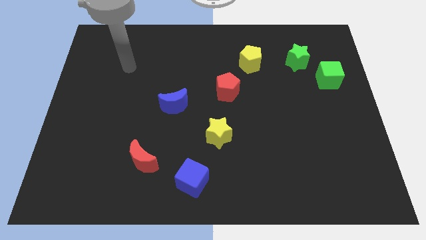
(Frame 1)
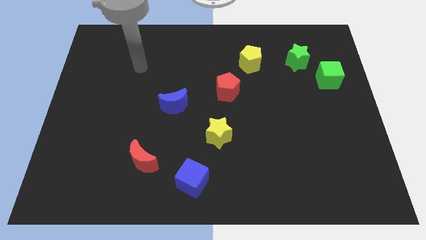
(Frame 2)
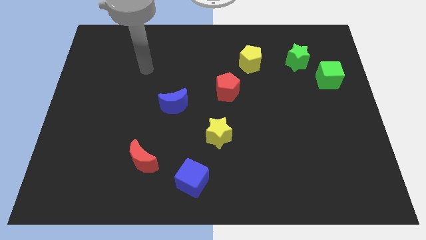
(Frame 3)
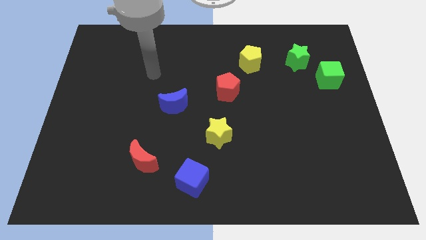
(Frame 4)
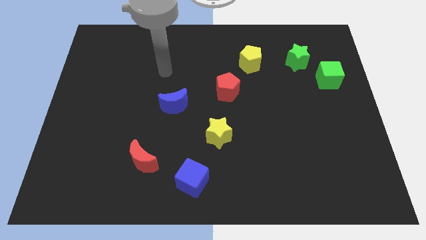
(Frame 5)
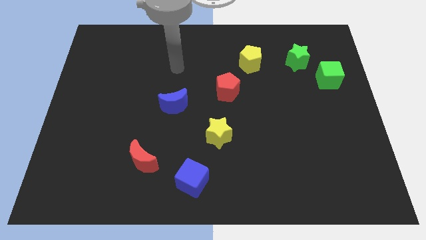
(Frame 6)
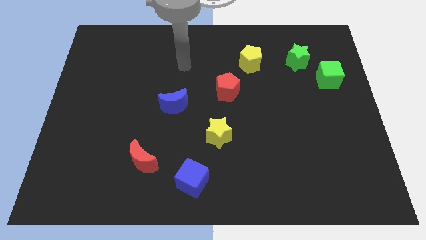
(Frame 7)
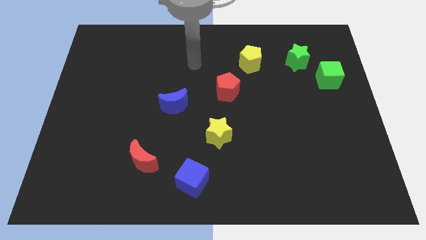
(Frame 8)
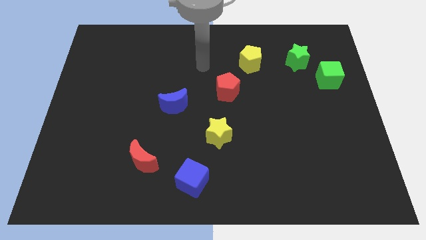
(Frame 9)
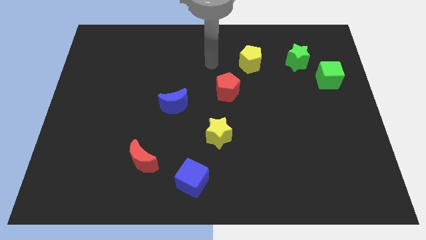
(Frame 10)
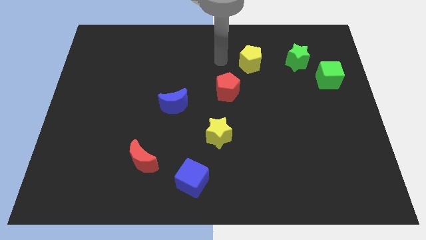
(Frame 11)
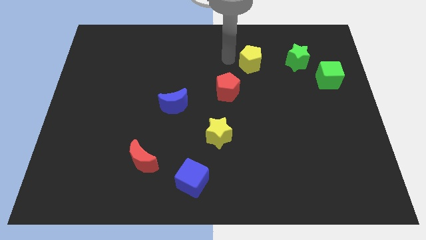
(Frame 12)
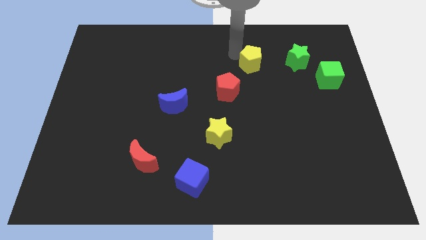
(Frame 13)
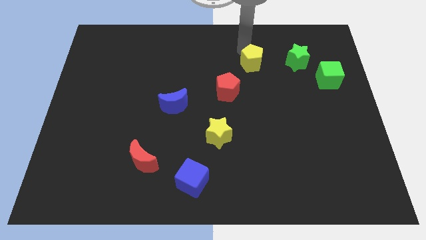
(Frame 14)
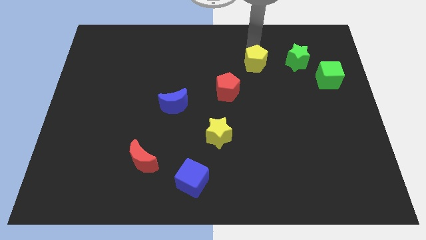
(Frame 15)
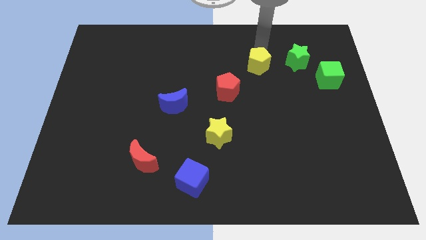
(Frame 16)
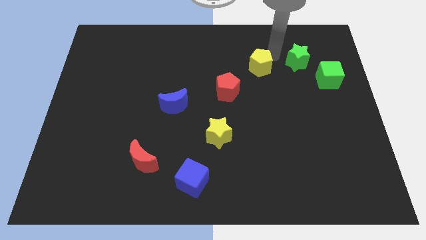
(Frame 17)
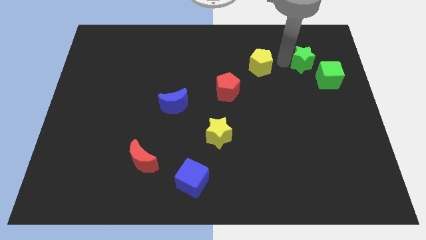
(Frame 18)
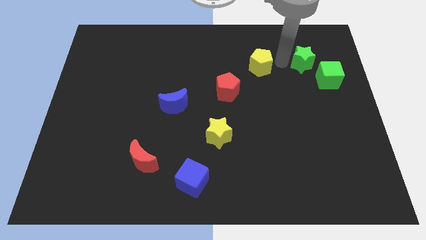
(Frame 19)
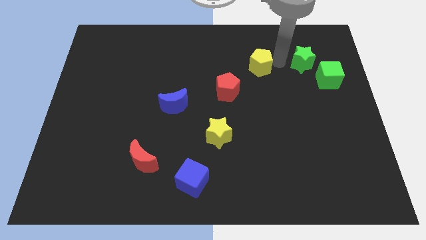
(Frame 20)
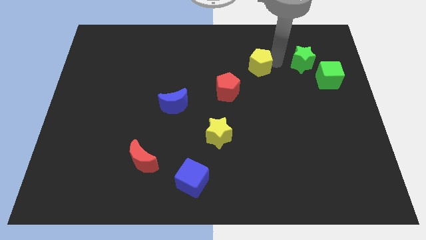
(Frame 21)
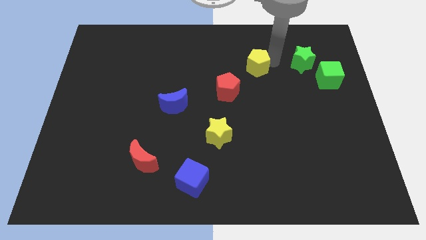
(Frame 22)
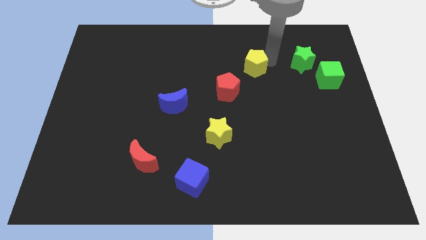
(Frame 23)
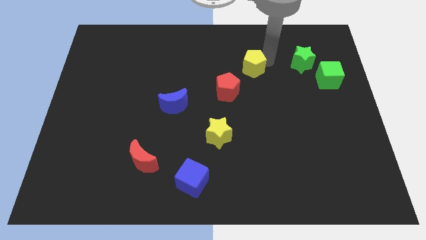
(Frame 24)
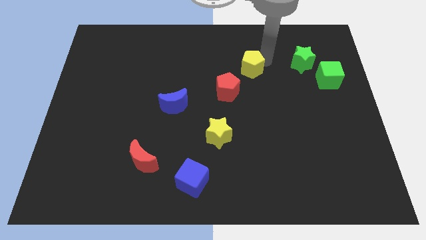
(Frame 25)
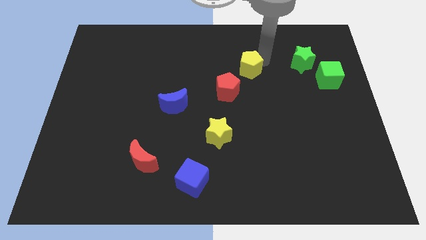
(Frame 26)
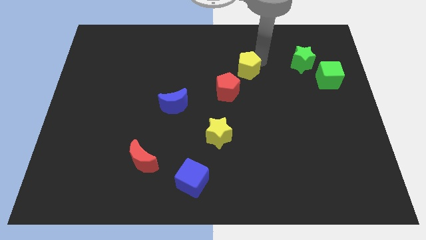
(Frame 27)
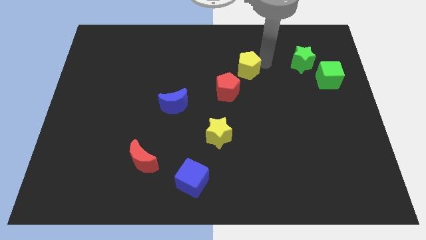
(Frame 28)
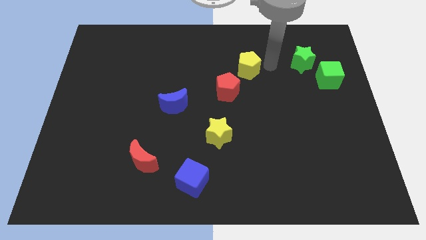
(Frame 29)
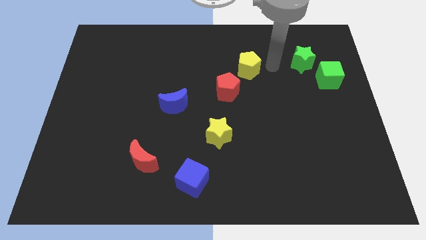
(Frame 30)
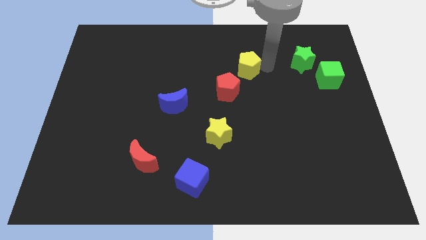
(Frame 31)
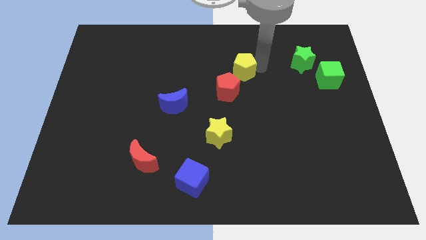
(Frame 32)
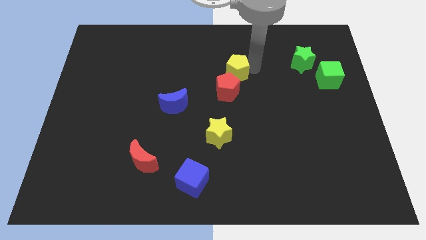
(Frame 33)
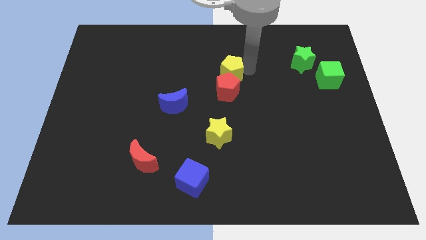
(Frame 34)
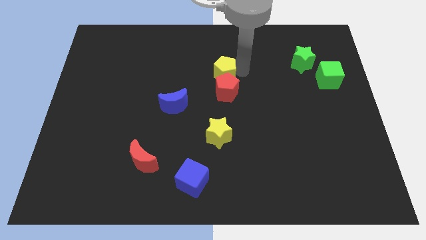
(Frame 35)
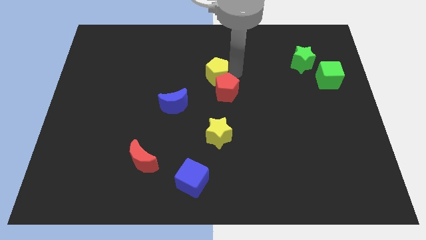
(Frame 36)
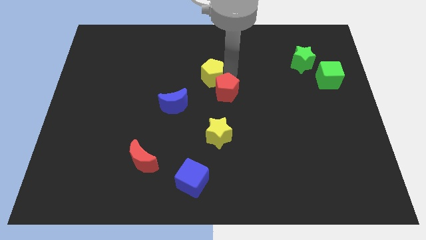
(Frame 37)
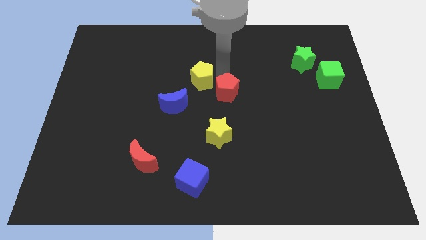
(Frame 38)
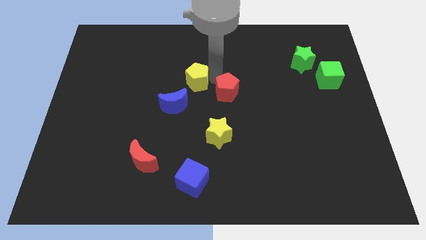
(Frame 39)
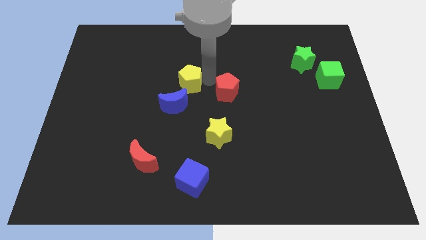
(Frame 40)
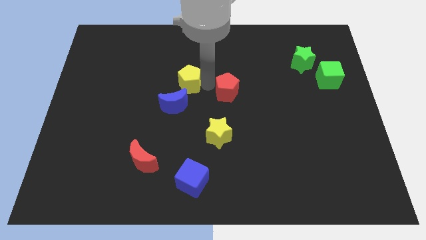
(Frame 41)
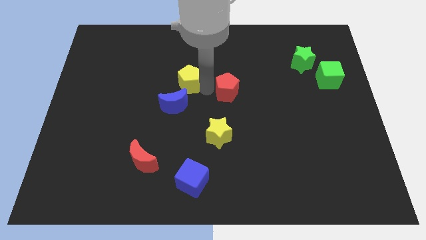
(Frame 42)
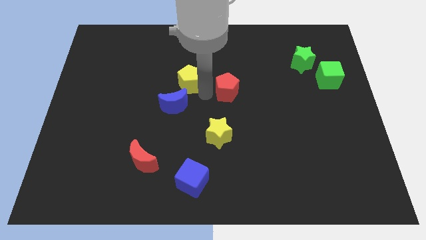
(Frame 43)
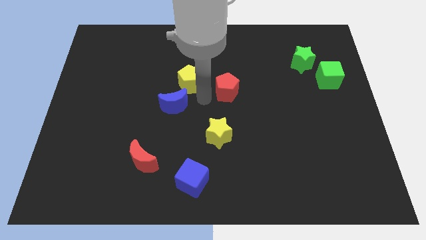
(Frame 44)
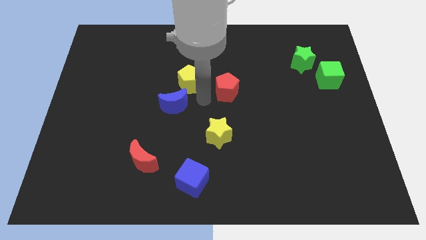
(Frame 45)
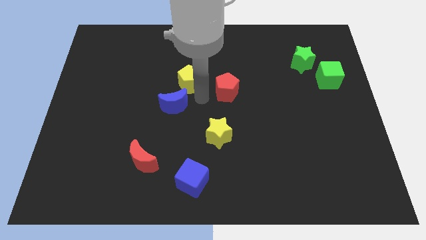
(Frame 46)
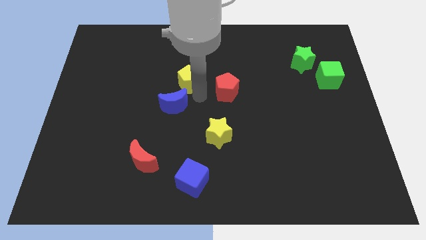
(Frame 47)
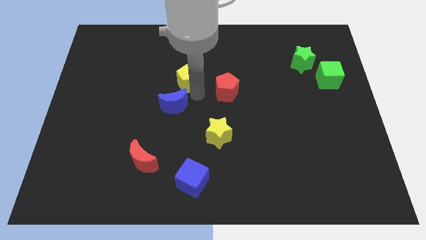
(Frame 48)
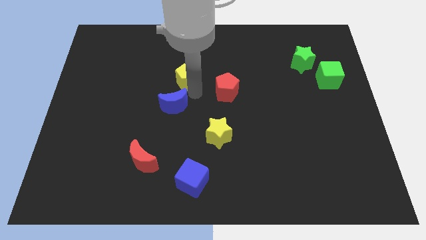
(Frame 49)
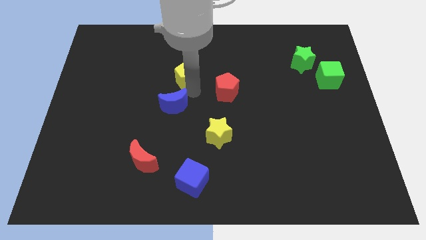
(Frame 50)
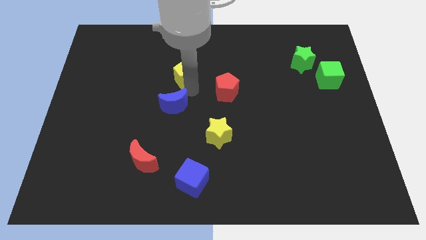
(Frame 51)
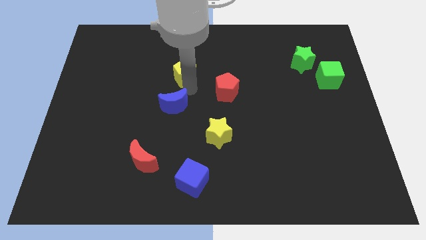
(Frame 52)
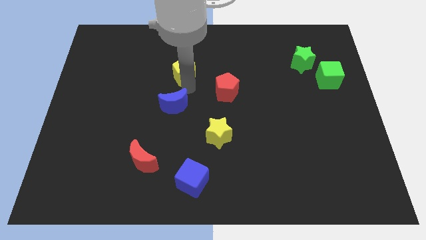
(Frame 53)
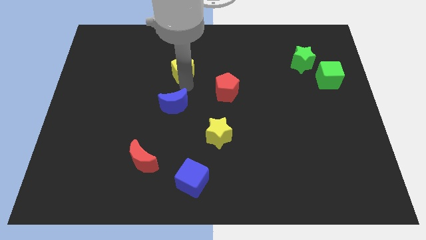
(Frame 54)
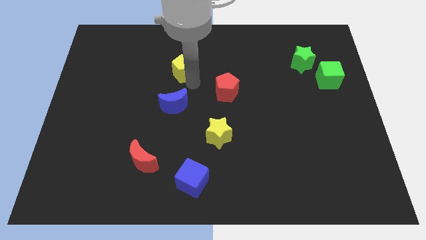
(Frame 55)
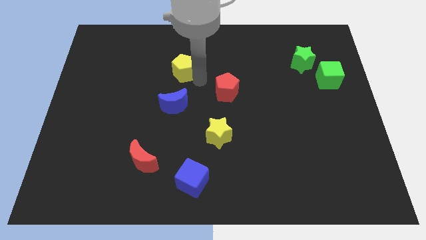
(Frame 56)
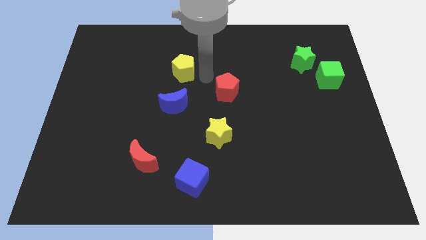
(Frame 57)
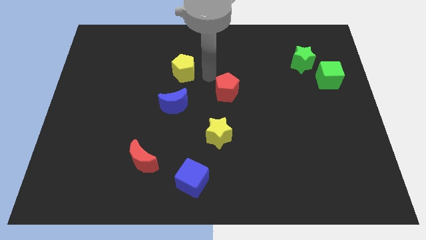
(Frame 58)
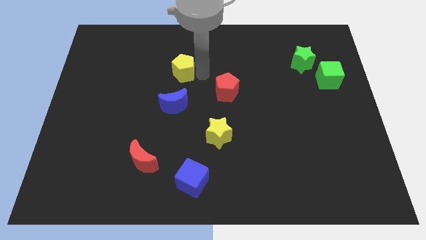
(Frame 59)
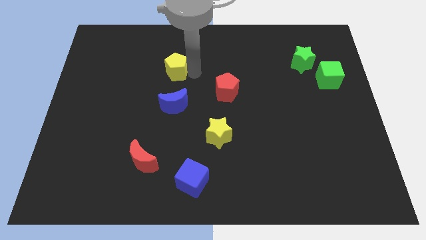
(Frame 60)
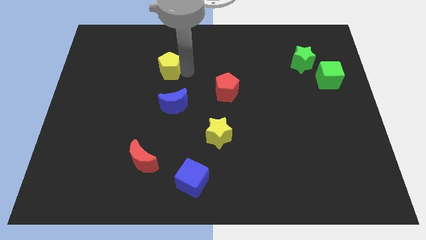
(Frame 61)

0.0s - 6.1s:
push the yellow pentagon left

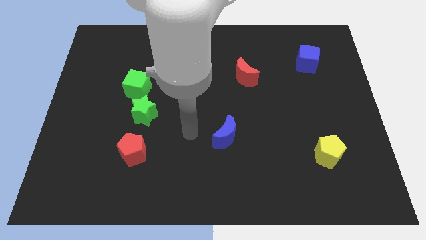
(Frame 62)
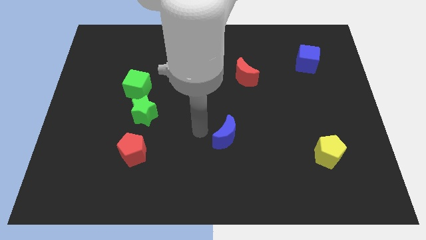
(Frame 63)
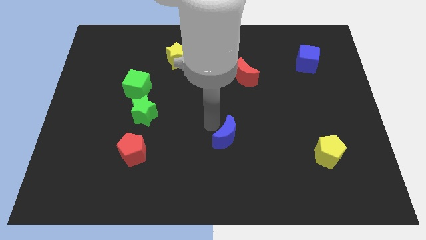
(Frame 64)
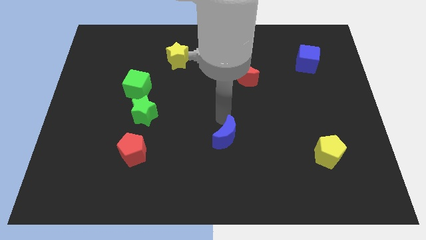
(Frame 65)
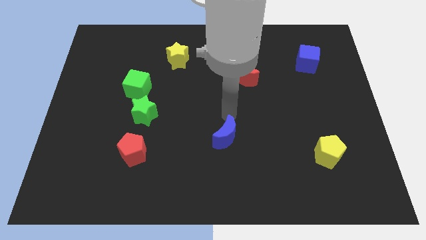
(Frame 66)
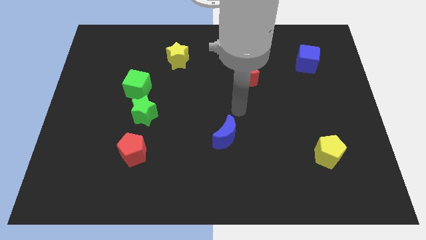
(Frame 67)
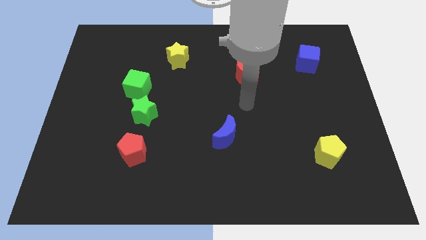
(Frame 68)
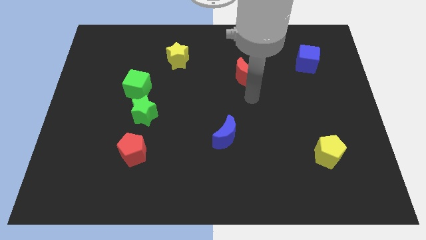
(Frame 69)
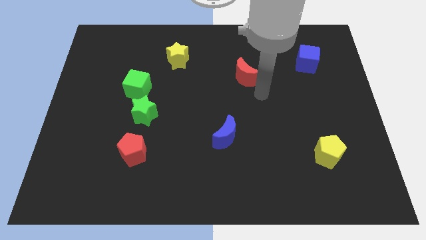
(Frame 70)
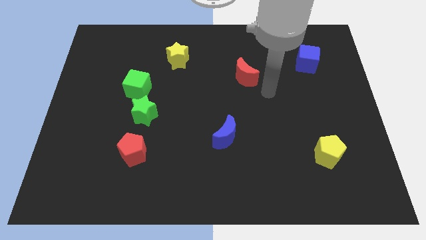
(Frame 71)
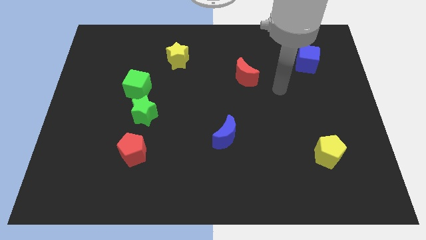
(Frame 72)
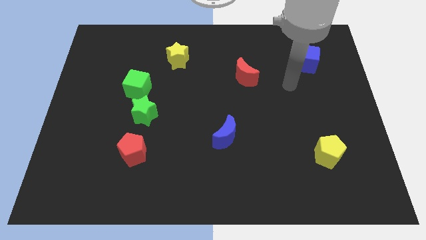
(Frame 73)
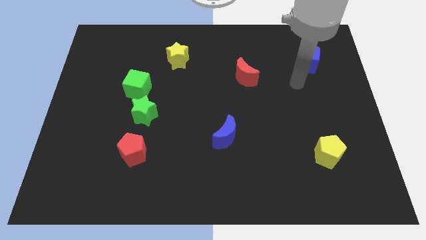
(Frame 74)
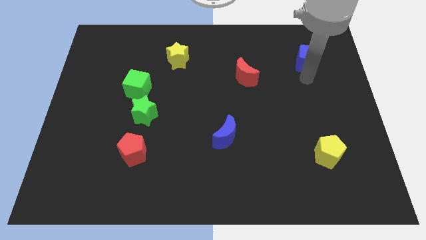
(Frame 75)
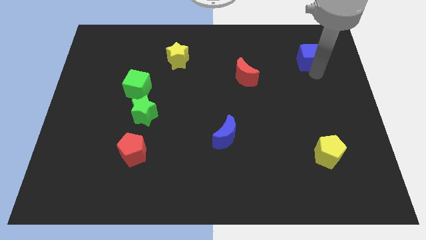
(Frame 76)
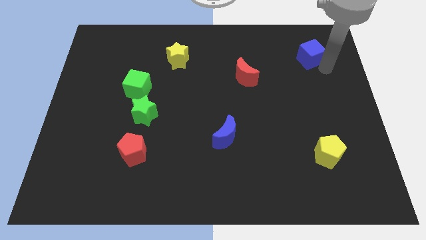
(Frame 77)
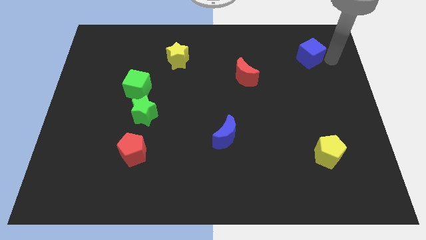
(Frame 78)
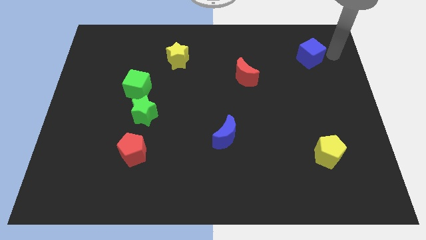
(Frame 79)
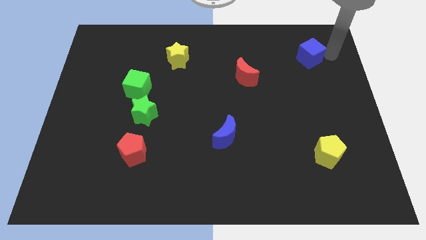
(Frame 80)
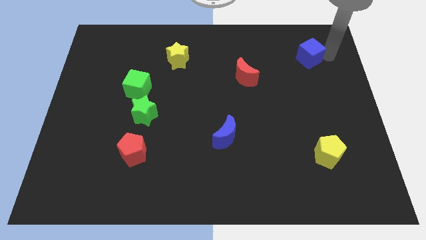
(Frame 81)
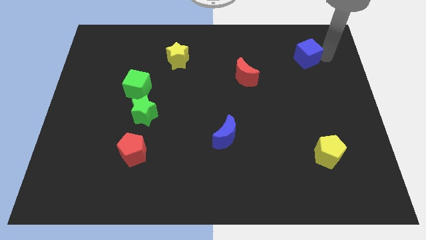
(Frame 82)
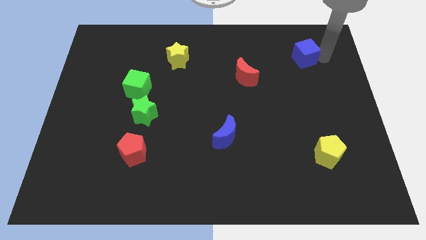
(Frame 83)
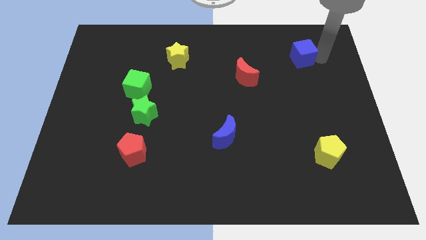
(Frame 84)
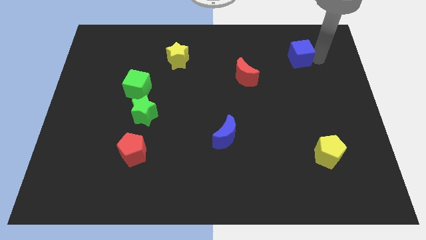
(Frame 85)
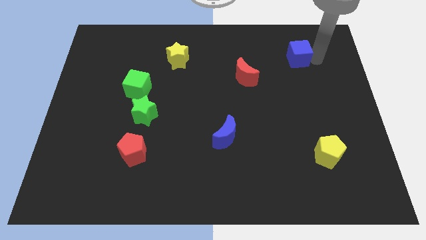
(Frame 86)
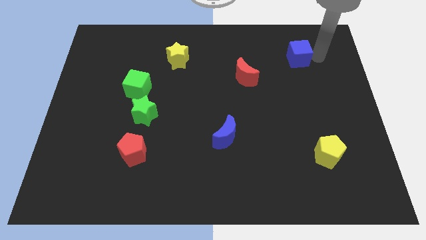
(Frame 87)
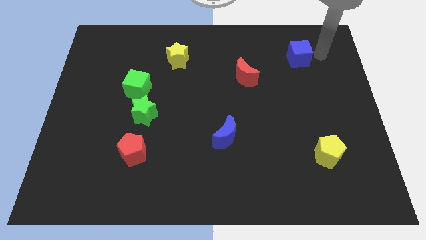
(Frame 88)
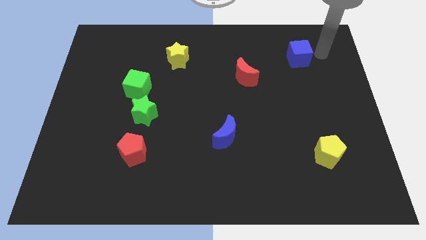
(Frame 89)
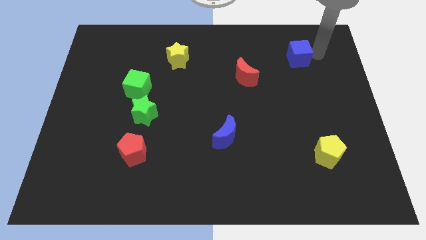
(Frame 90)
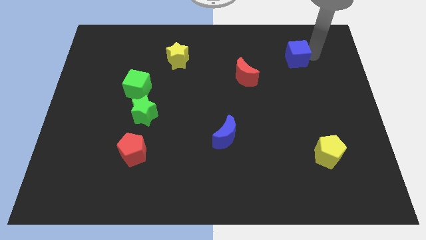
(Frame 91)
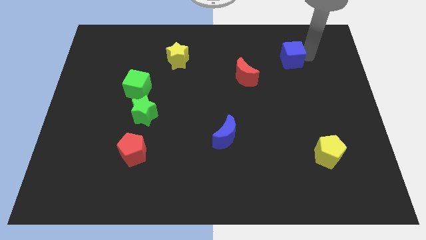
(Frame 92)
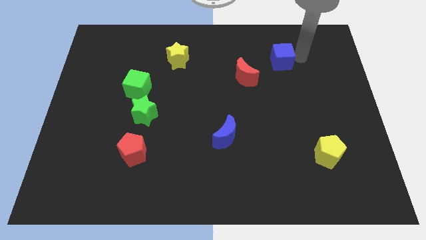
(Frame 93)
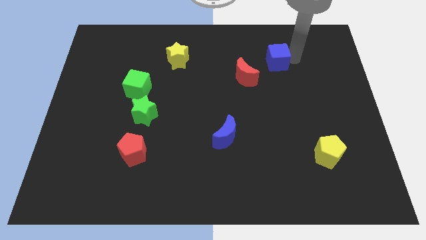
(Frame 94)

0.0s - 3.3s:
push the blue cube to the left a bit
